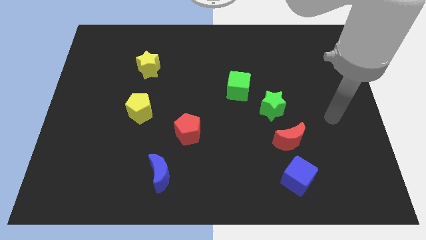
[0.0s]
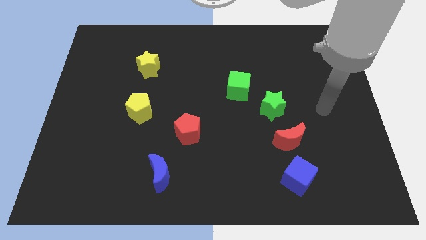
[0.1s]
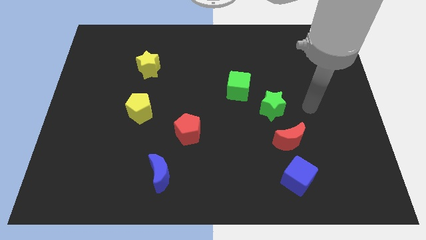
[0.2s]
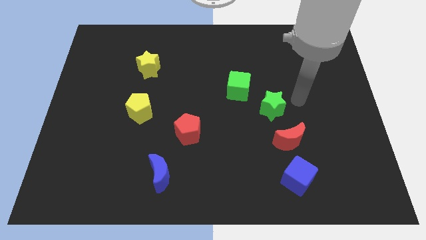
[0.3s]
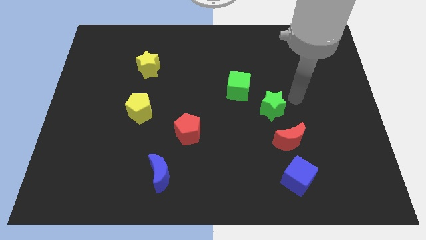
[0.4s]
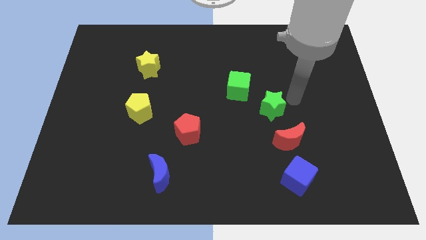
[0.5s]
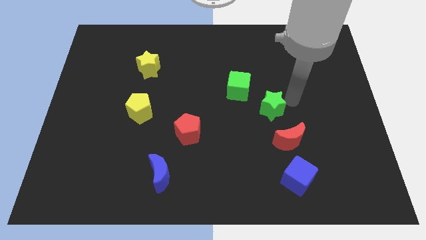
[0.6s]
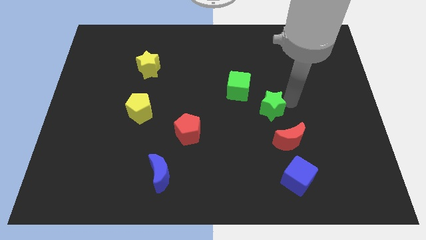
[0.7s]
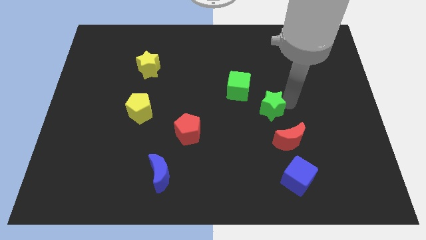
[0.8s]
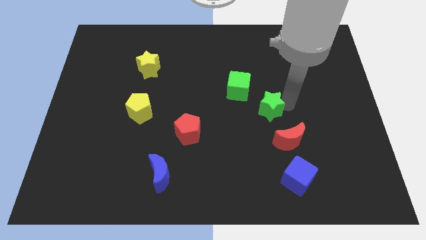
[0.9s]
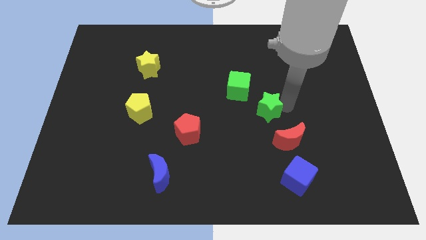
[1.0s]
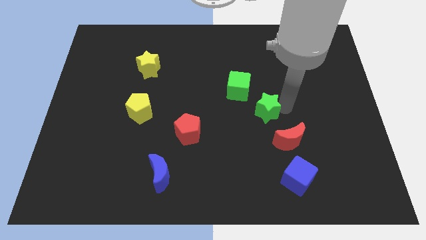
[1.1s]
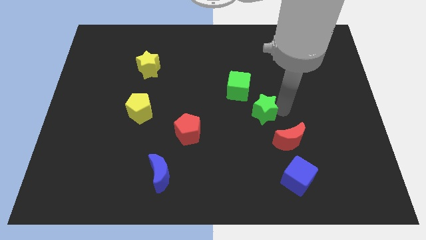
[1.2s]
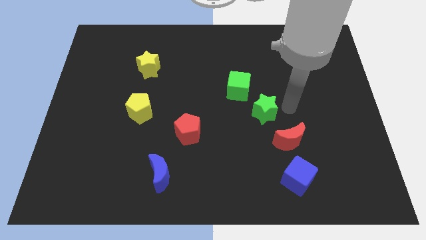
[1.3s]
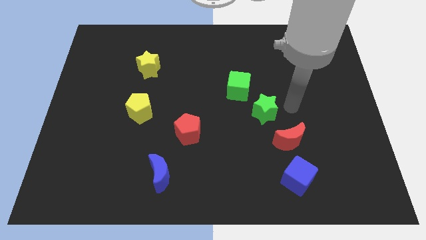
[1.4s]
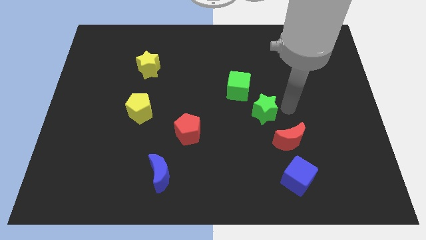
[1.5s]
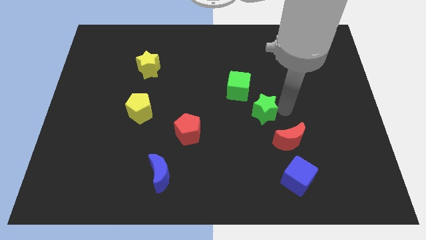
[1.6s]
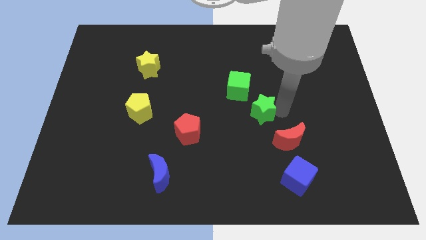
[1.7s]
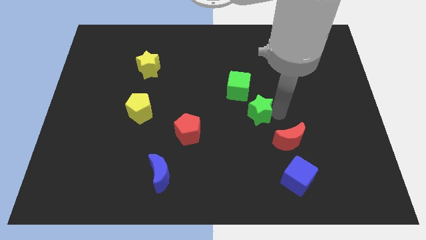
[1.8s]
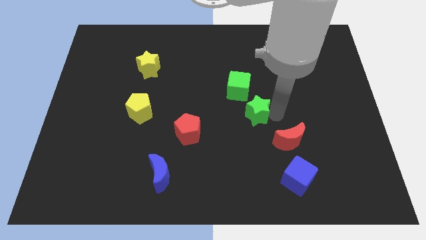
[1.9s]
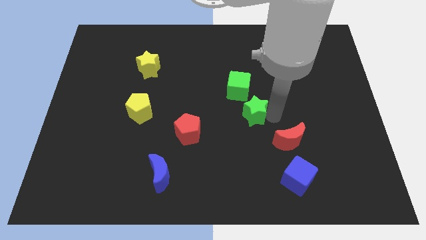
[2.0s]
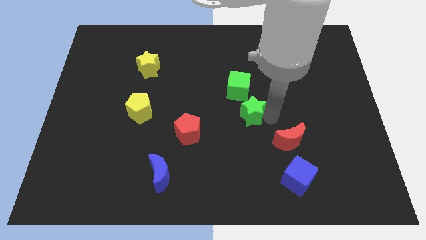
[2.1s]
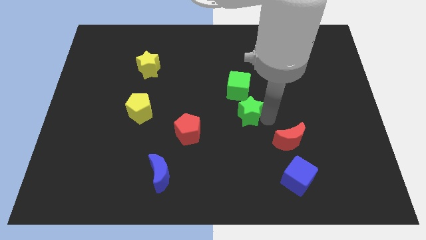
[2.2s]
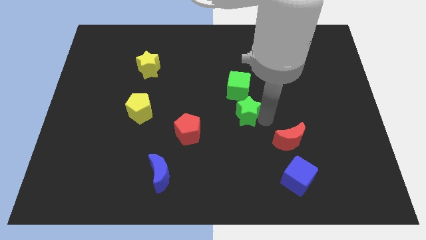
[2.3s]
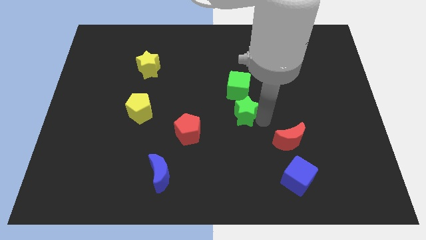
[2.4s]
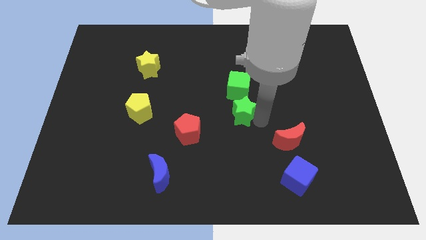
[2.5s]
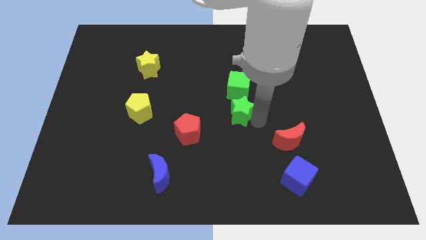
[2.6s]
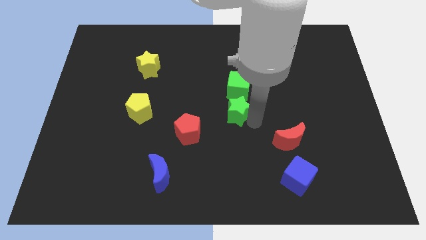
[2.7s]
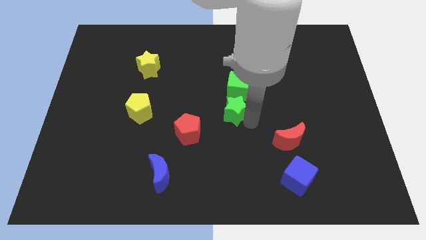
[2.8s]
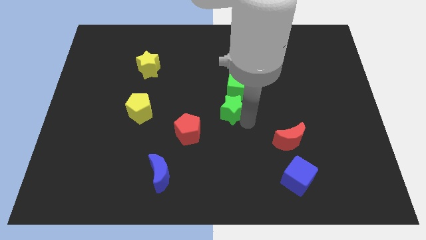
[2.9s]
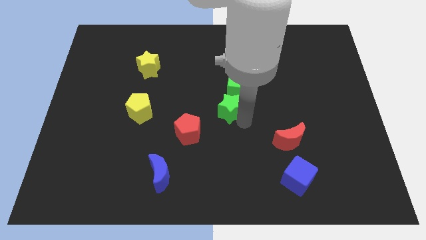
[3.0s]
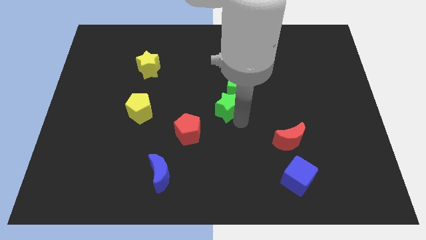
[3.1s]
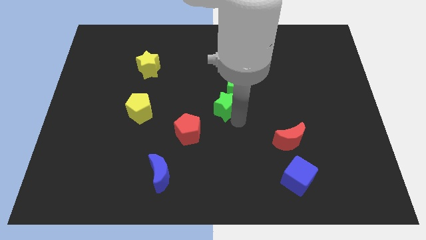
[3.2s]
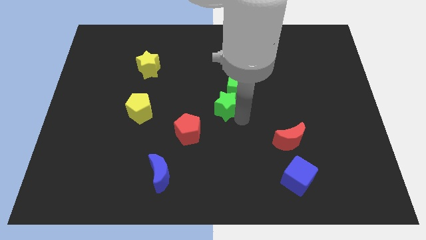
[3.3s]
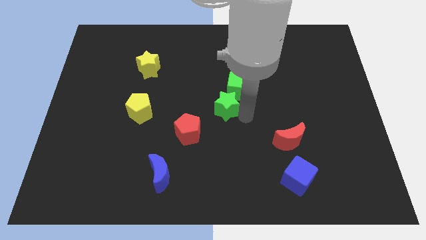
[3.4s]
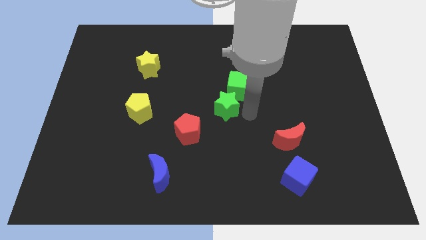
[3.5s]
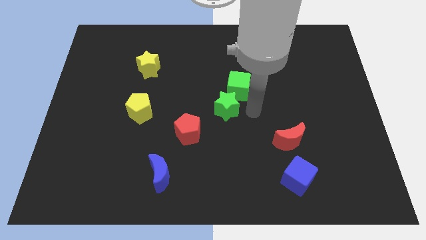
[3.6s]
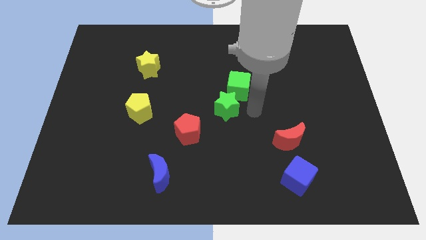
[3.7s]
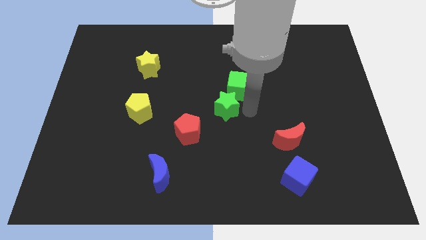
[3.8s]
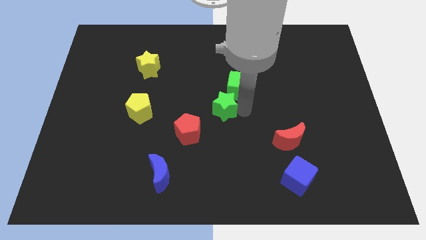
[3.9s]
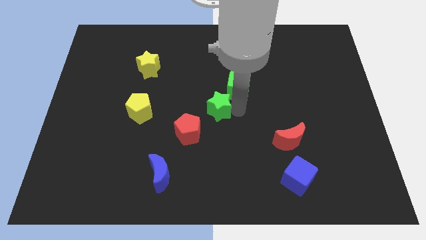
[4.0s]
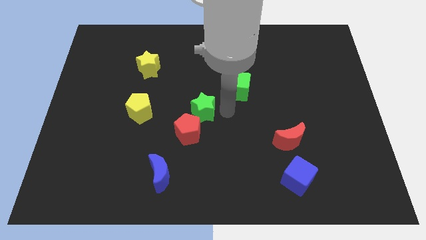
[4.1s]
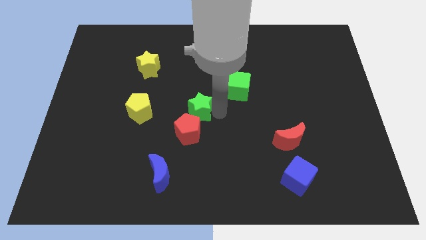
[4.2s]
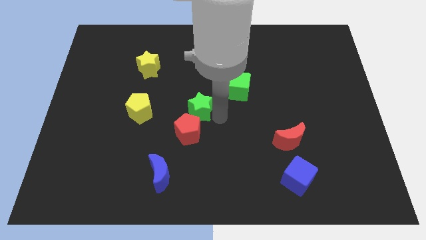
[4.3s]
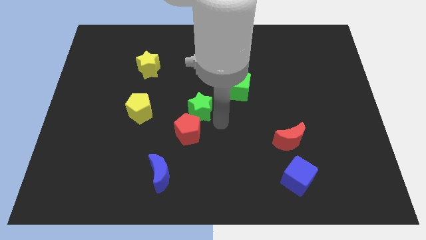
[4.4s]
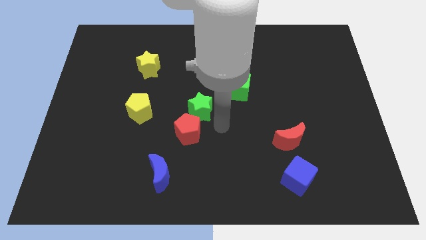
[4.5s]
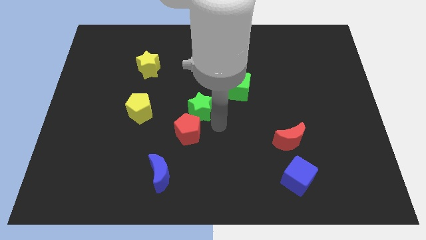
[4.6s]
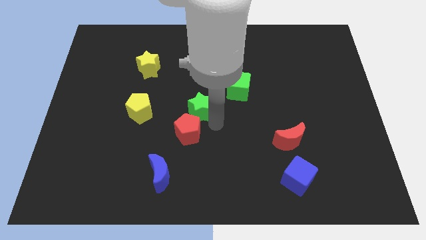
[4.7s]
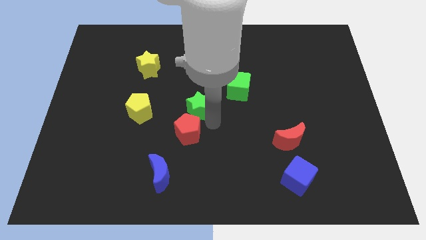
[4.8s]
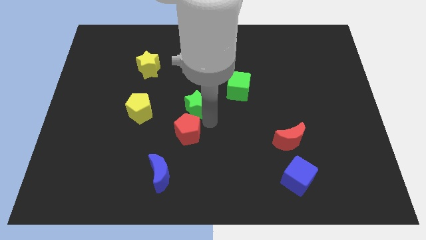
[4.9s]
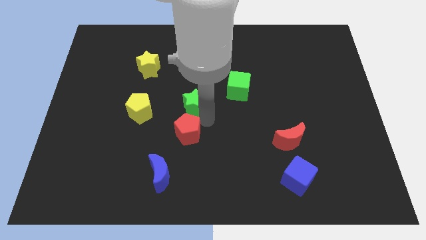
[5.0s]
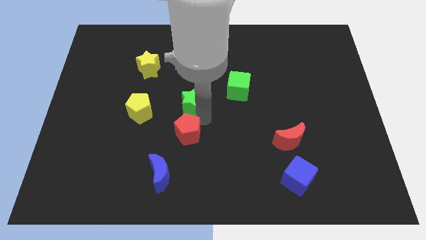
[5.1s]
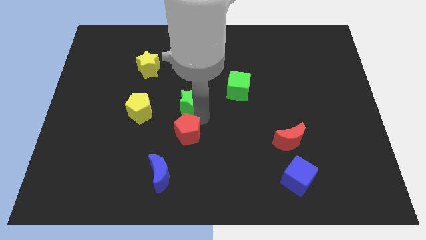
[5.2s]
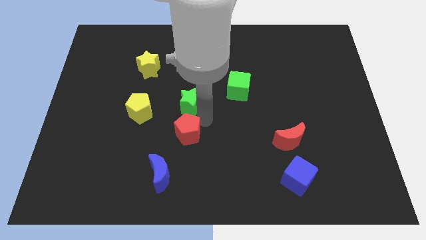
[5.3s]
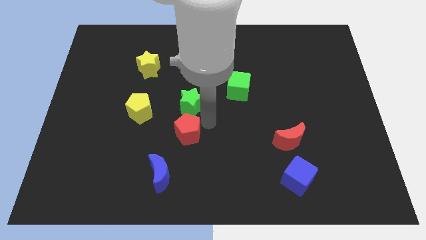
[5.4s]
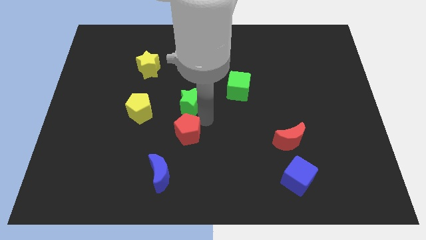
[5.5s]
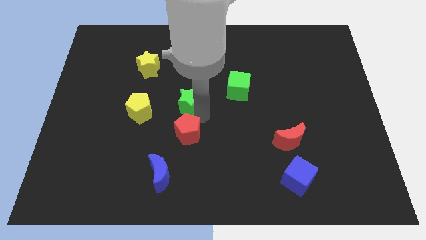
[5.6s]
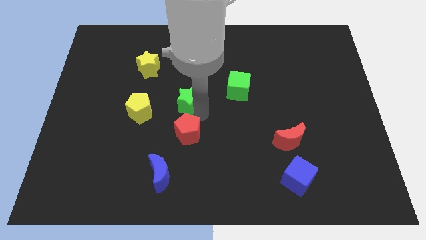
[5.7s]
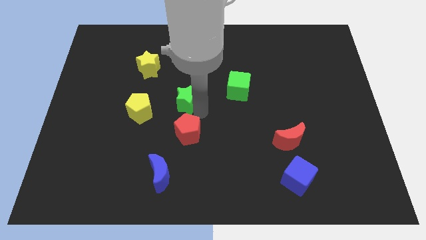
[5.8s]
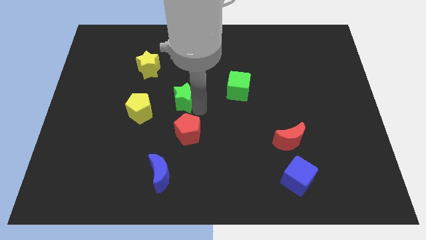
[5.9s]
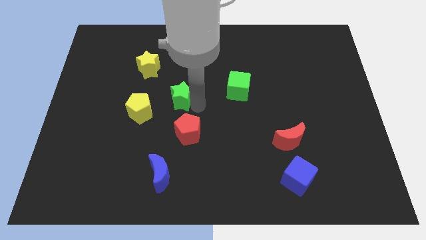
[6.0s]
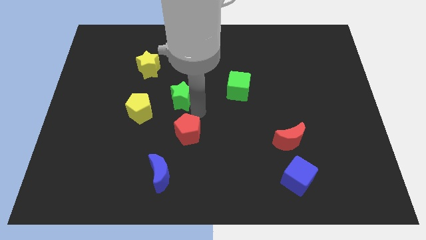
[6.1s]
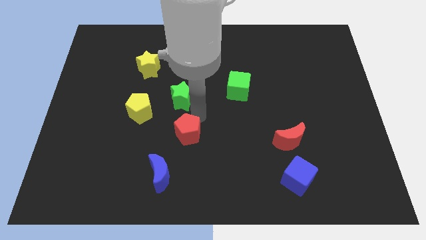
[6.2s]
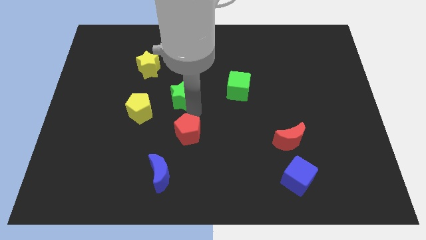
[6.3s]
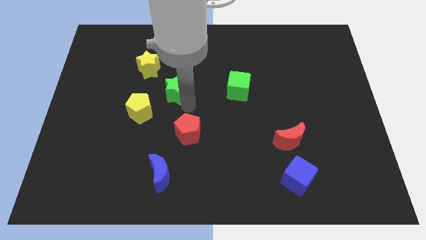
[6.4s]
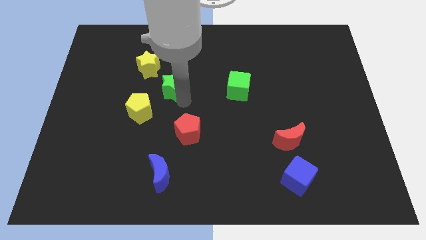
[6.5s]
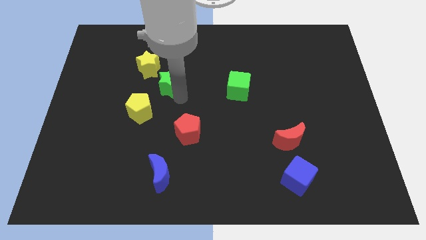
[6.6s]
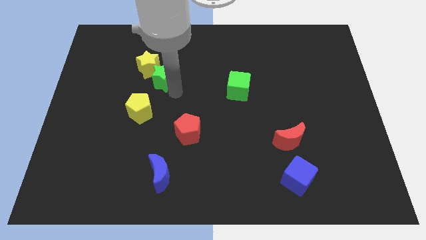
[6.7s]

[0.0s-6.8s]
move the green star next to the yellow star
